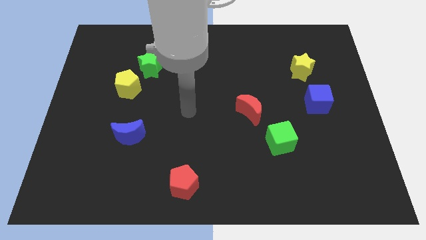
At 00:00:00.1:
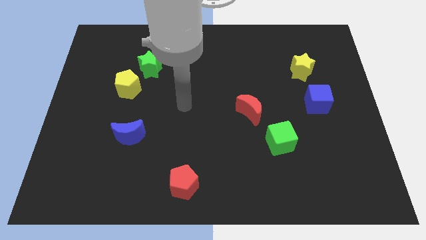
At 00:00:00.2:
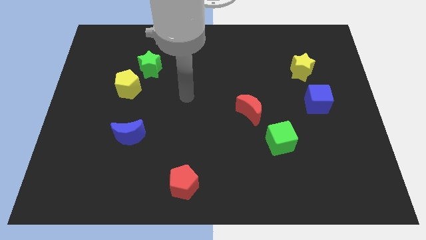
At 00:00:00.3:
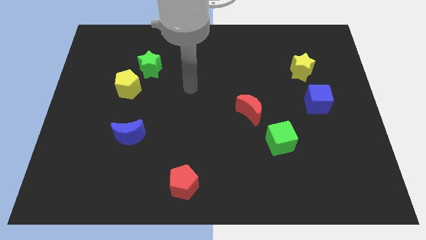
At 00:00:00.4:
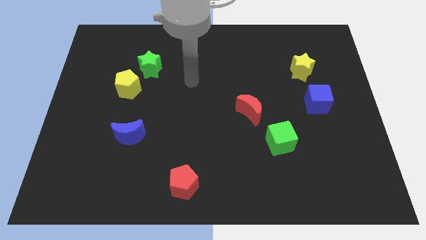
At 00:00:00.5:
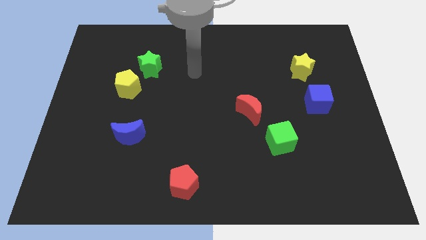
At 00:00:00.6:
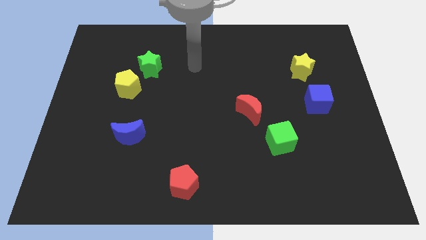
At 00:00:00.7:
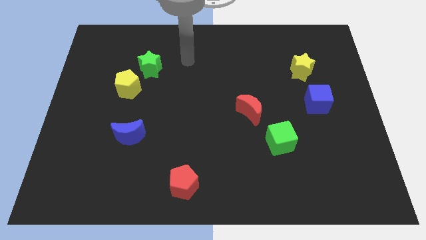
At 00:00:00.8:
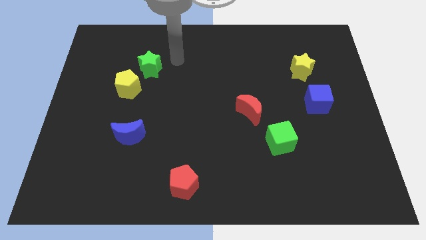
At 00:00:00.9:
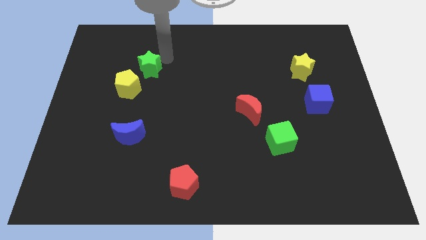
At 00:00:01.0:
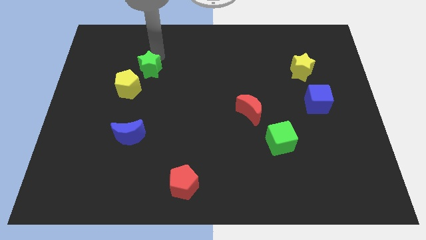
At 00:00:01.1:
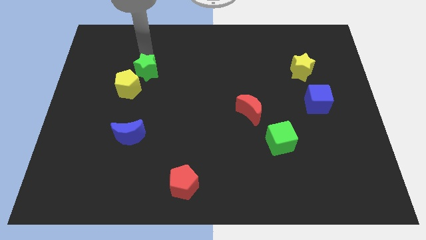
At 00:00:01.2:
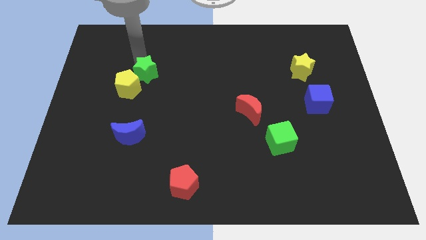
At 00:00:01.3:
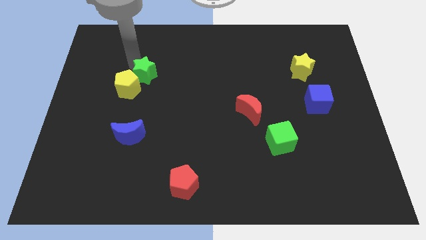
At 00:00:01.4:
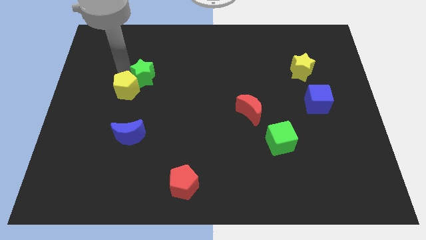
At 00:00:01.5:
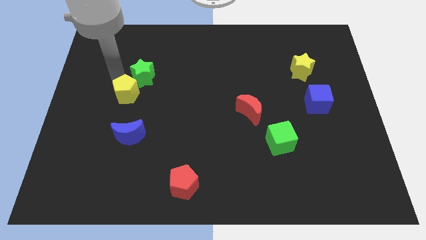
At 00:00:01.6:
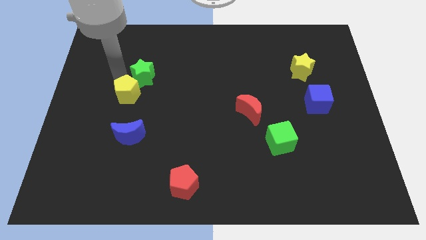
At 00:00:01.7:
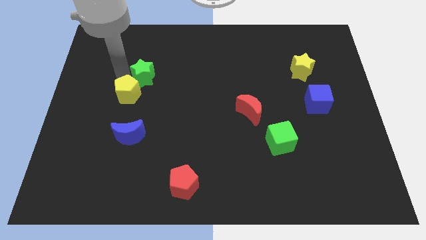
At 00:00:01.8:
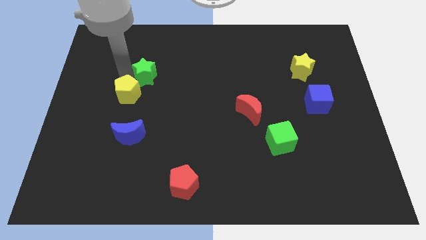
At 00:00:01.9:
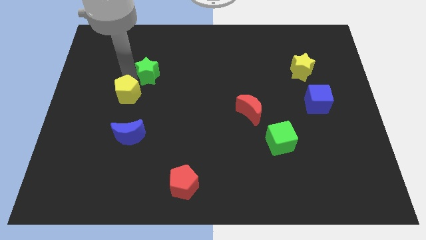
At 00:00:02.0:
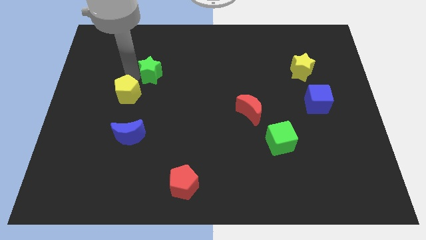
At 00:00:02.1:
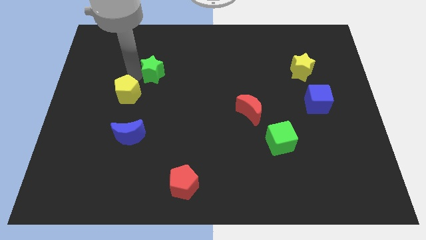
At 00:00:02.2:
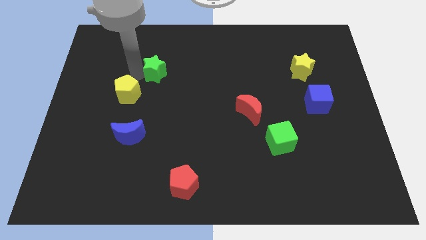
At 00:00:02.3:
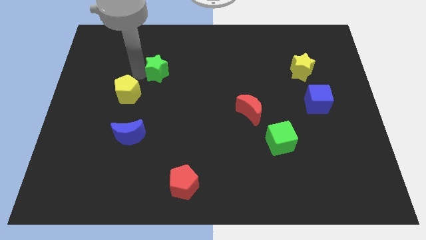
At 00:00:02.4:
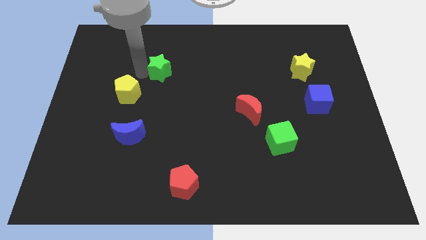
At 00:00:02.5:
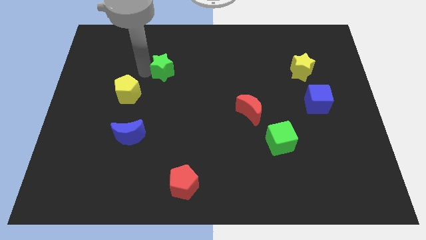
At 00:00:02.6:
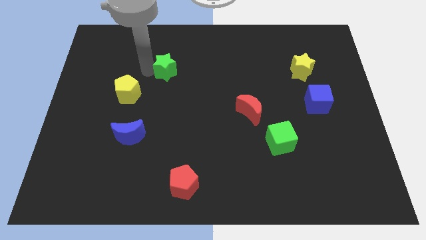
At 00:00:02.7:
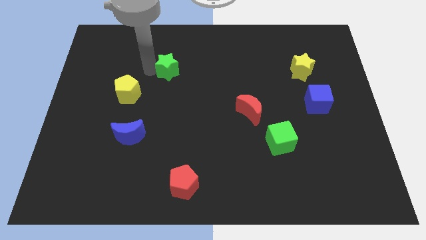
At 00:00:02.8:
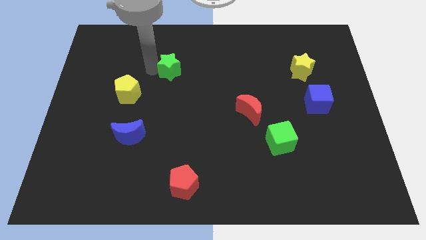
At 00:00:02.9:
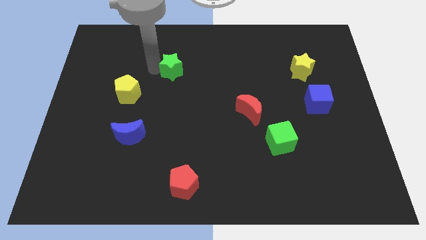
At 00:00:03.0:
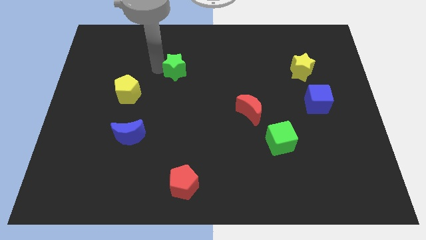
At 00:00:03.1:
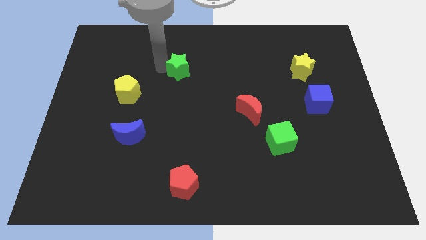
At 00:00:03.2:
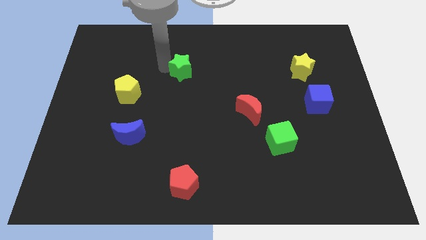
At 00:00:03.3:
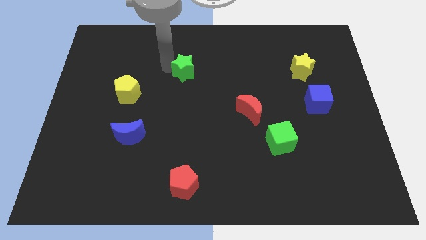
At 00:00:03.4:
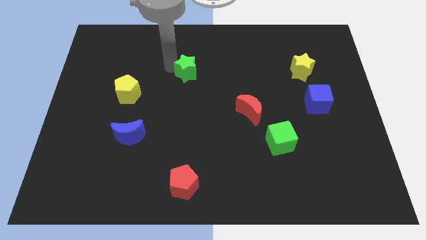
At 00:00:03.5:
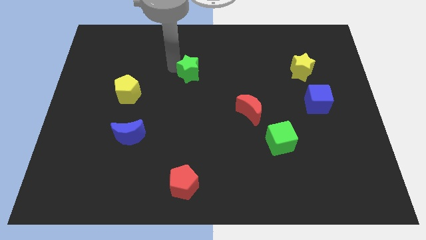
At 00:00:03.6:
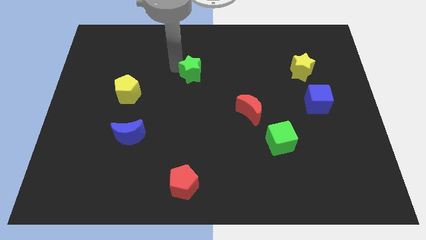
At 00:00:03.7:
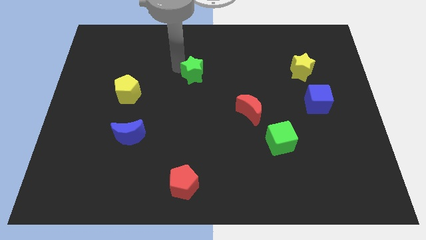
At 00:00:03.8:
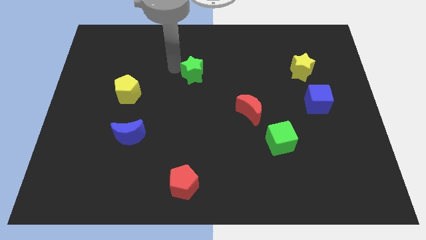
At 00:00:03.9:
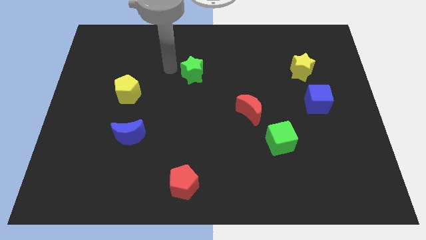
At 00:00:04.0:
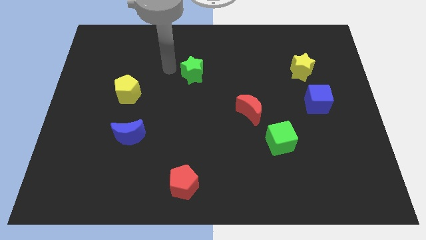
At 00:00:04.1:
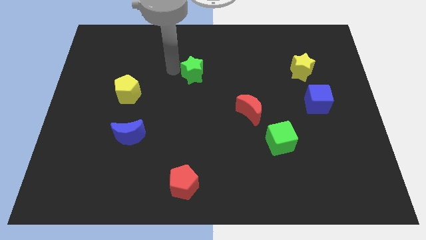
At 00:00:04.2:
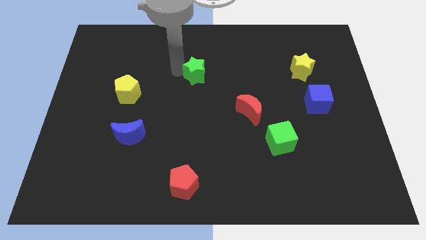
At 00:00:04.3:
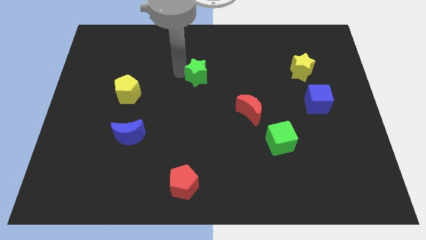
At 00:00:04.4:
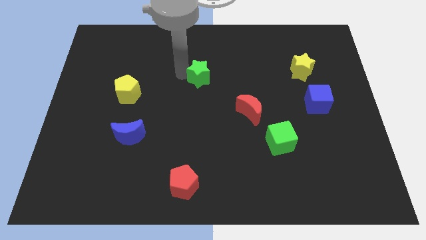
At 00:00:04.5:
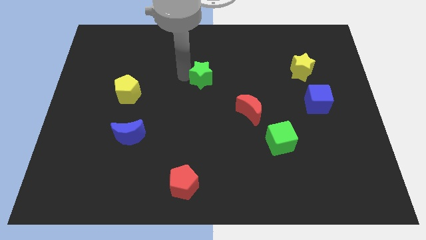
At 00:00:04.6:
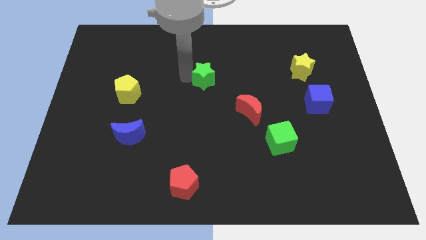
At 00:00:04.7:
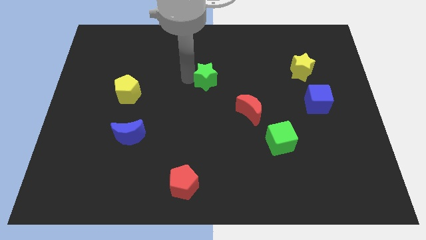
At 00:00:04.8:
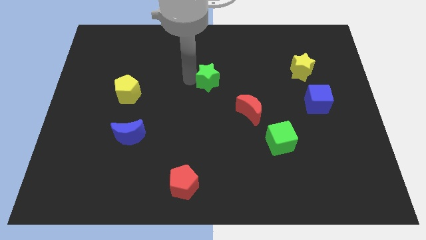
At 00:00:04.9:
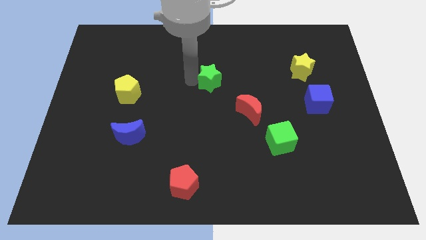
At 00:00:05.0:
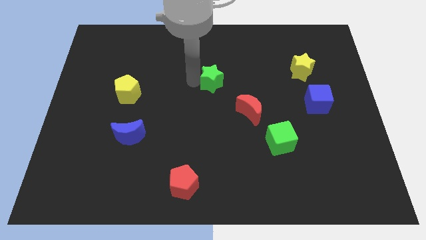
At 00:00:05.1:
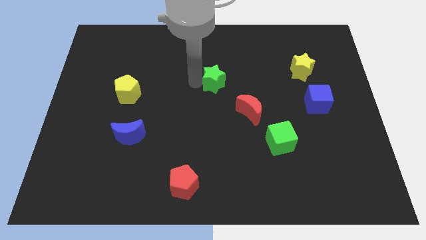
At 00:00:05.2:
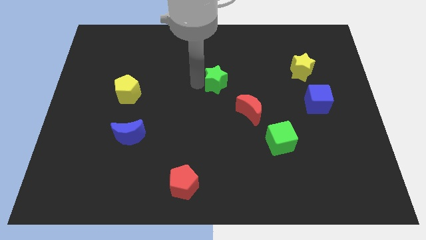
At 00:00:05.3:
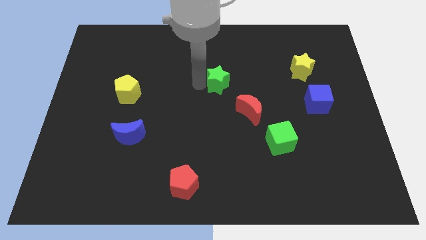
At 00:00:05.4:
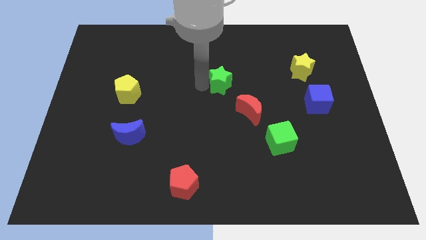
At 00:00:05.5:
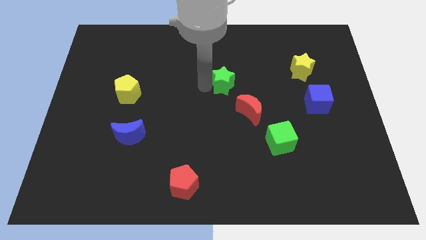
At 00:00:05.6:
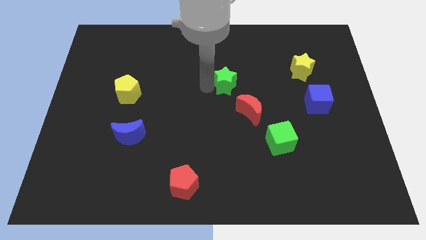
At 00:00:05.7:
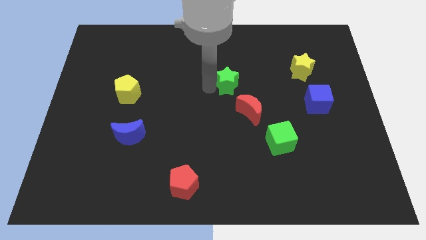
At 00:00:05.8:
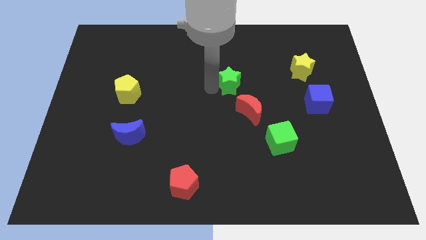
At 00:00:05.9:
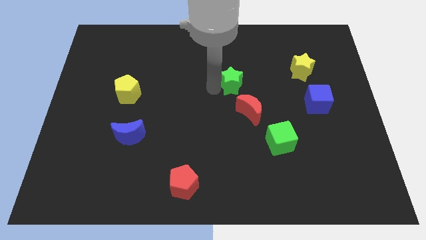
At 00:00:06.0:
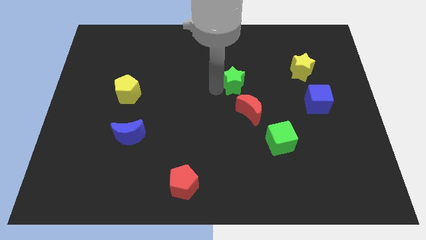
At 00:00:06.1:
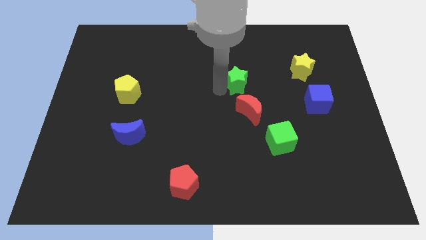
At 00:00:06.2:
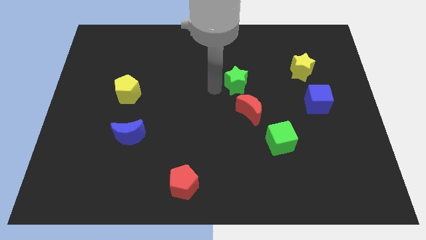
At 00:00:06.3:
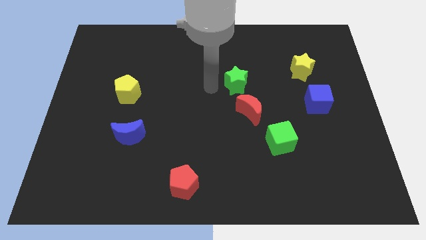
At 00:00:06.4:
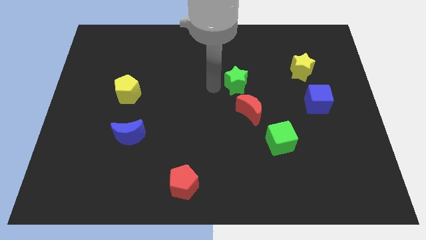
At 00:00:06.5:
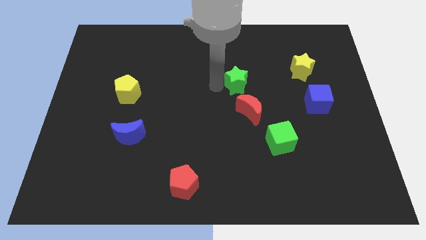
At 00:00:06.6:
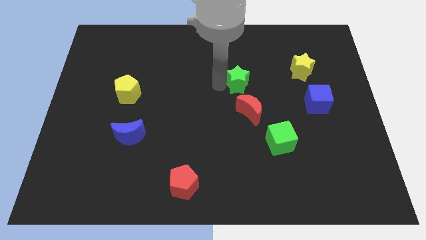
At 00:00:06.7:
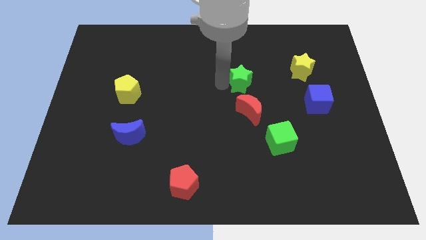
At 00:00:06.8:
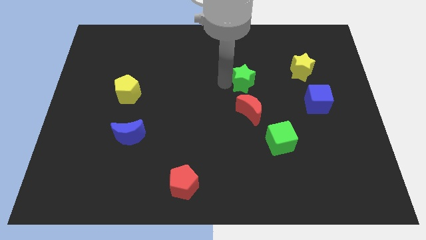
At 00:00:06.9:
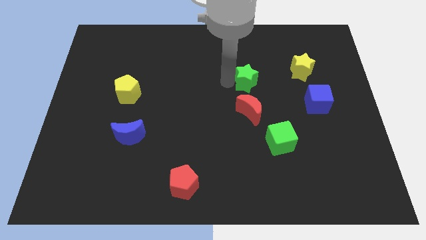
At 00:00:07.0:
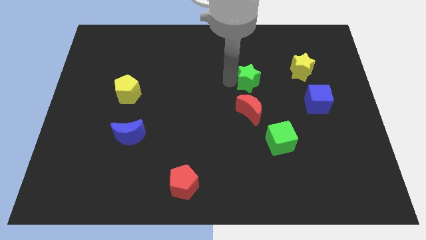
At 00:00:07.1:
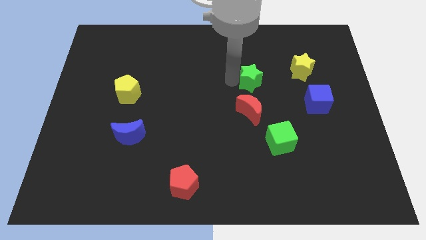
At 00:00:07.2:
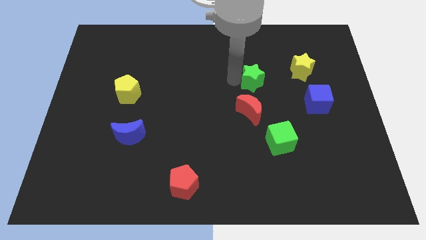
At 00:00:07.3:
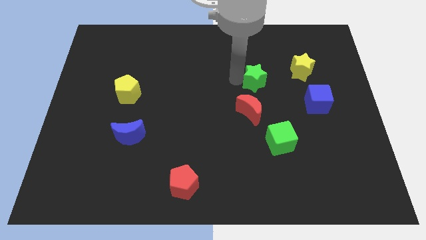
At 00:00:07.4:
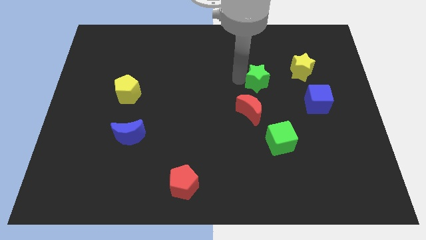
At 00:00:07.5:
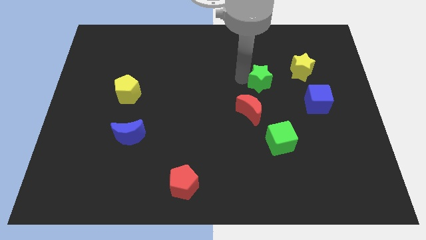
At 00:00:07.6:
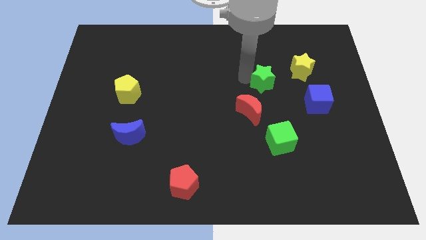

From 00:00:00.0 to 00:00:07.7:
push the green star diagonally down and to the left of the yellow star

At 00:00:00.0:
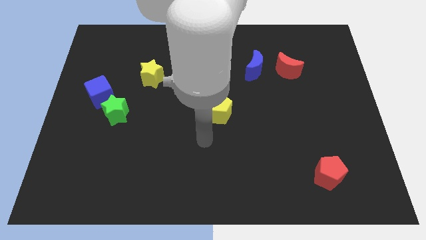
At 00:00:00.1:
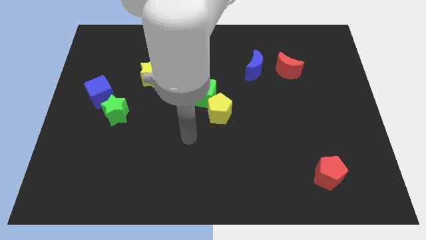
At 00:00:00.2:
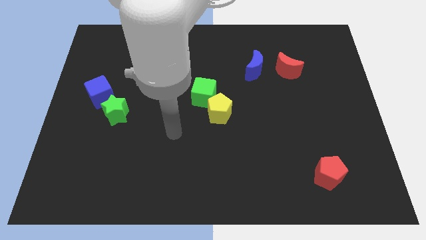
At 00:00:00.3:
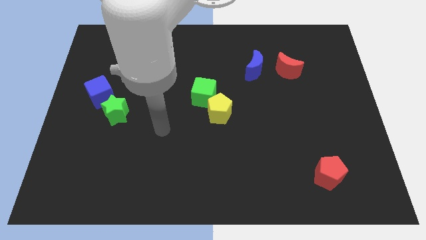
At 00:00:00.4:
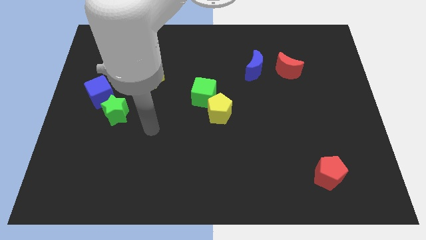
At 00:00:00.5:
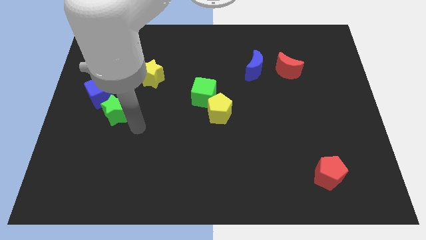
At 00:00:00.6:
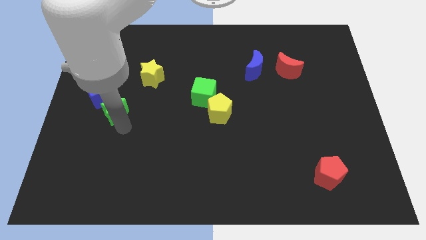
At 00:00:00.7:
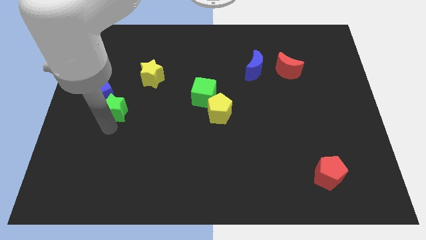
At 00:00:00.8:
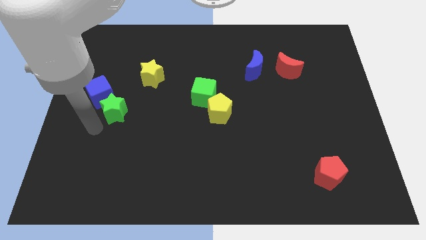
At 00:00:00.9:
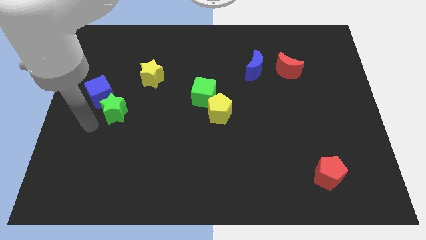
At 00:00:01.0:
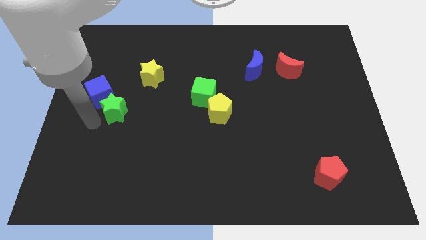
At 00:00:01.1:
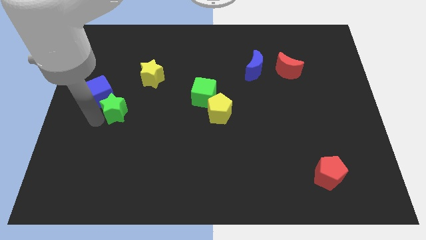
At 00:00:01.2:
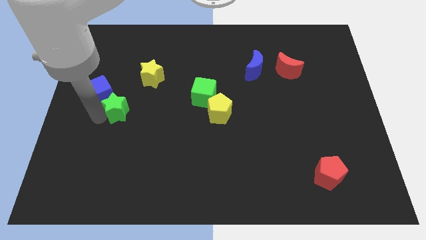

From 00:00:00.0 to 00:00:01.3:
put the green star right of the blue cube
